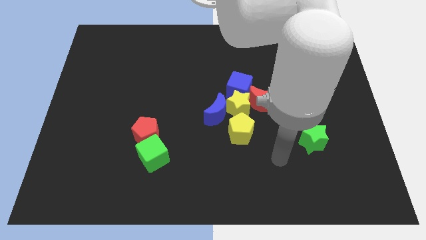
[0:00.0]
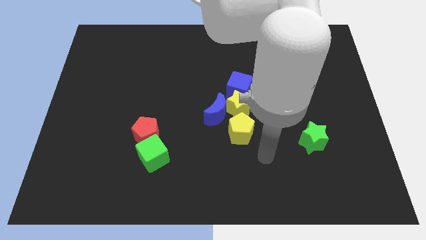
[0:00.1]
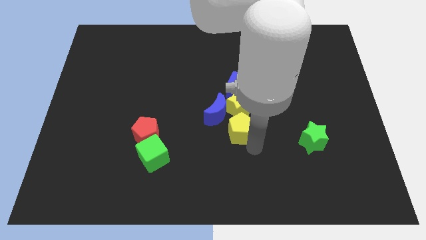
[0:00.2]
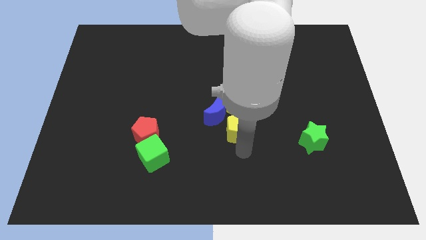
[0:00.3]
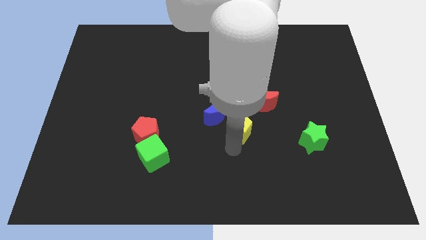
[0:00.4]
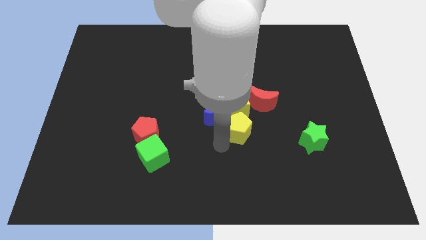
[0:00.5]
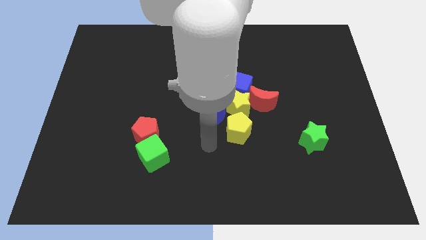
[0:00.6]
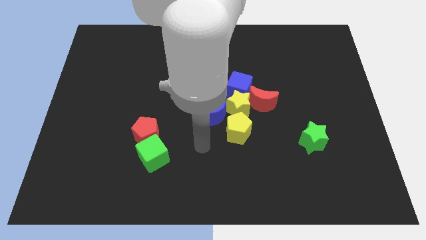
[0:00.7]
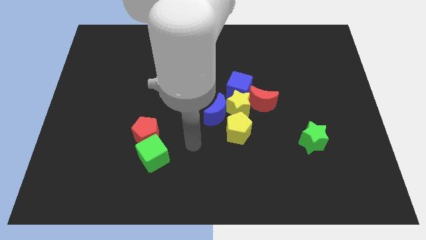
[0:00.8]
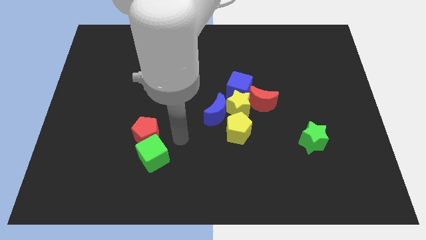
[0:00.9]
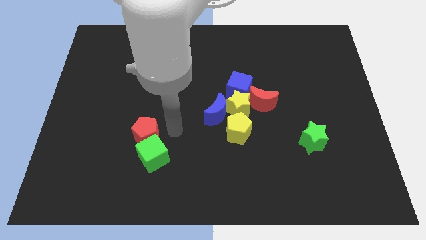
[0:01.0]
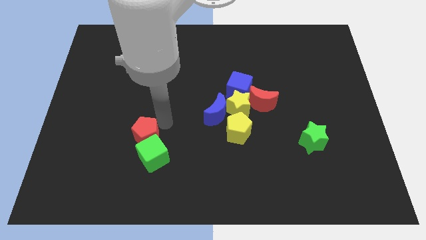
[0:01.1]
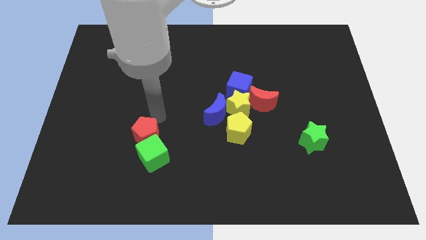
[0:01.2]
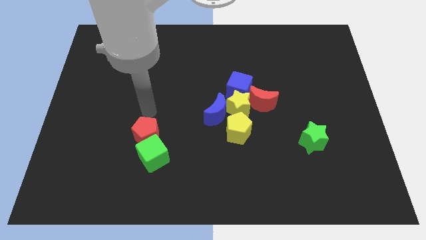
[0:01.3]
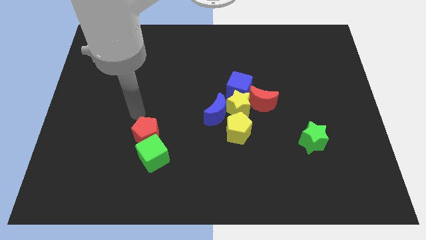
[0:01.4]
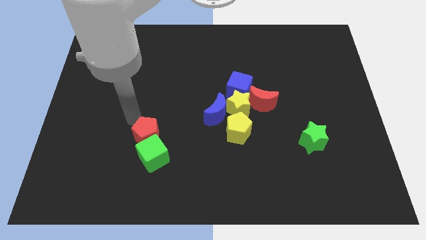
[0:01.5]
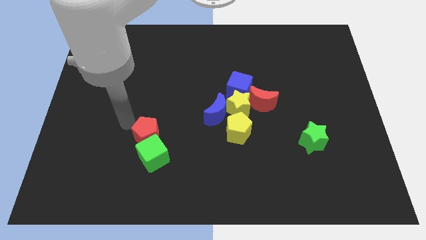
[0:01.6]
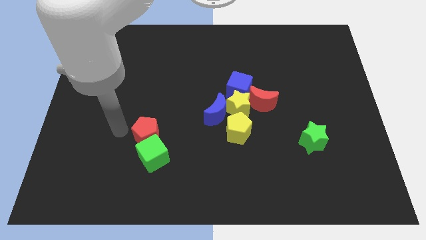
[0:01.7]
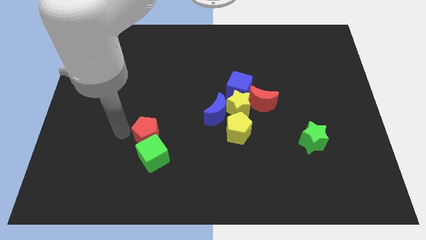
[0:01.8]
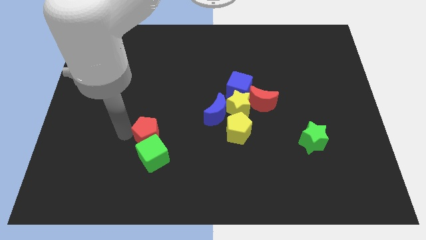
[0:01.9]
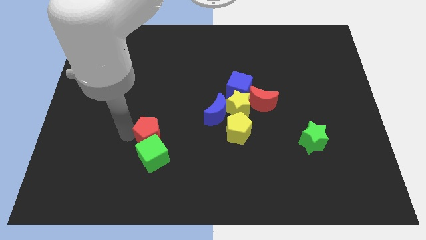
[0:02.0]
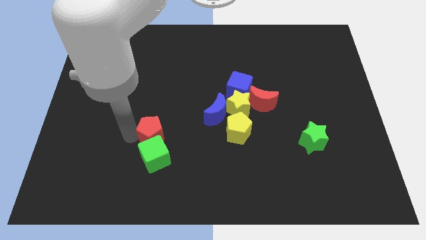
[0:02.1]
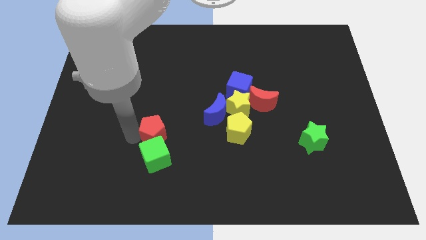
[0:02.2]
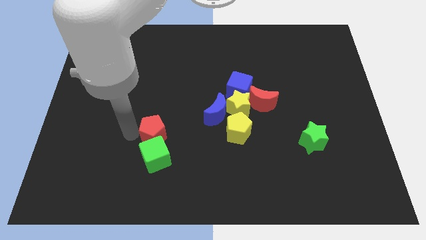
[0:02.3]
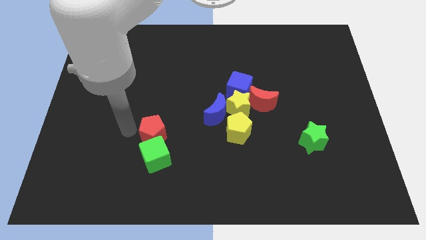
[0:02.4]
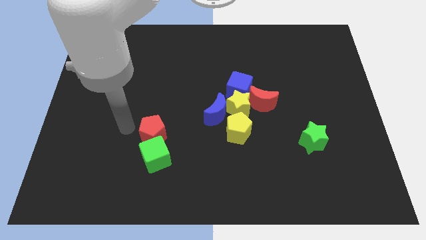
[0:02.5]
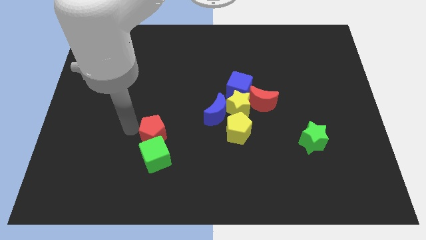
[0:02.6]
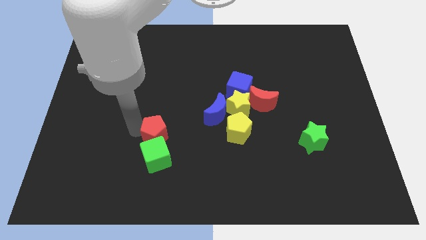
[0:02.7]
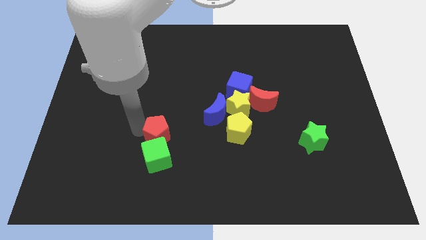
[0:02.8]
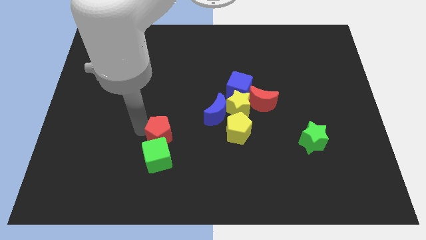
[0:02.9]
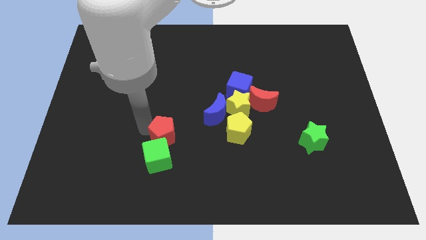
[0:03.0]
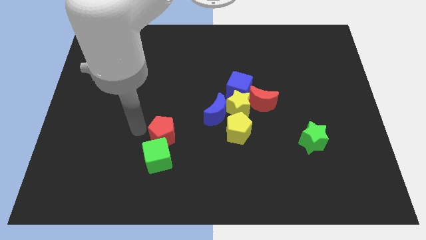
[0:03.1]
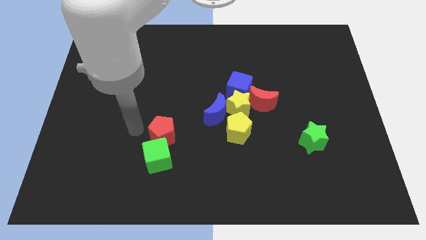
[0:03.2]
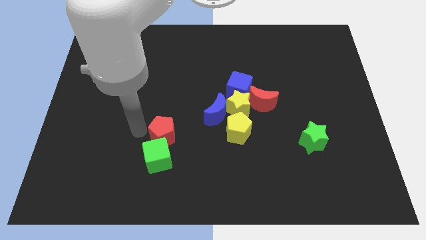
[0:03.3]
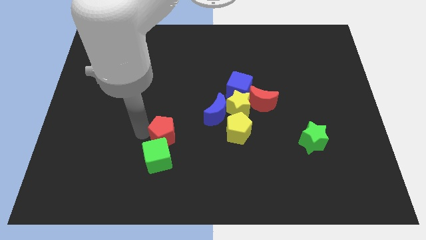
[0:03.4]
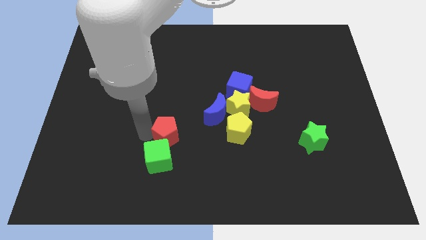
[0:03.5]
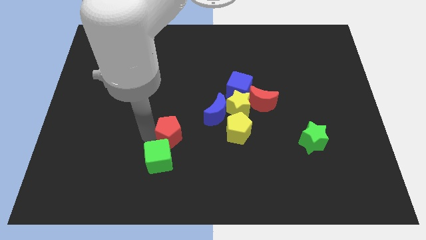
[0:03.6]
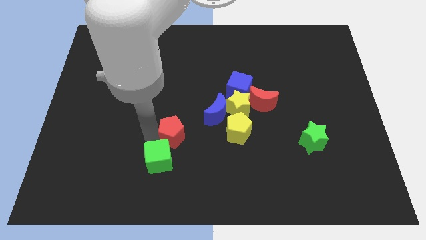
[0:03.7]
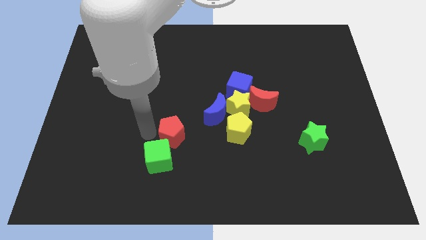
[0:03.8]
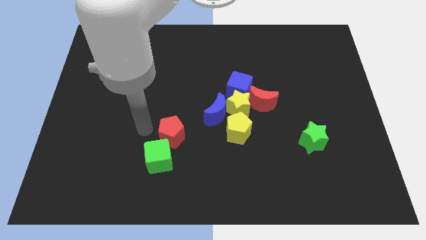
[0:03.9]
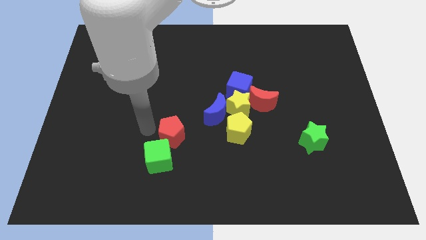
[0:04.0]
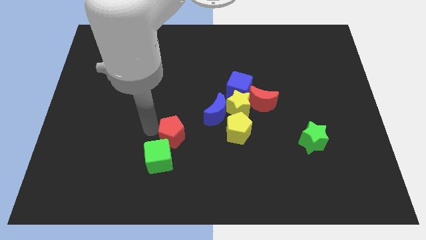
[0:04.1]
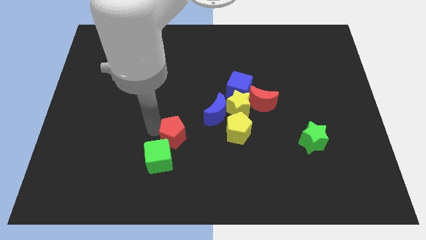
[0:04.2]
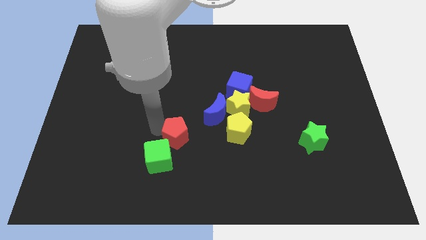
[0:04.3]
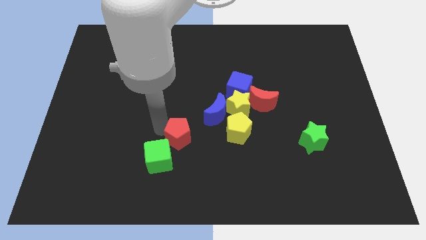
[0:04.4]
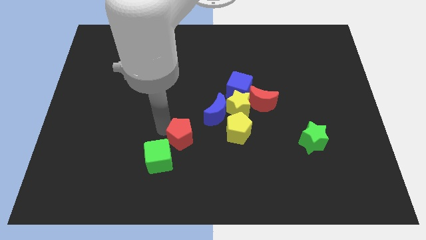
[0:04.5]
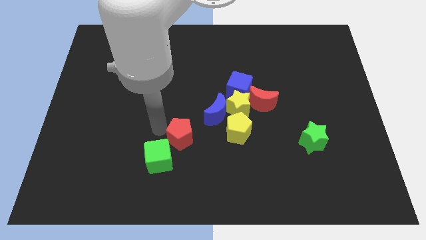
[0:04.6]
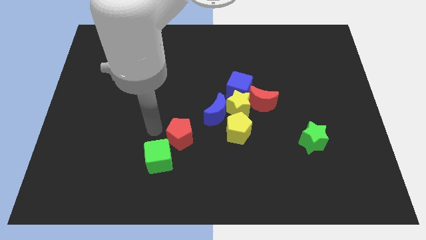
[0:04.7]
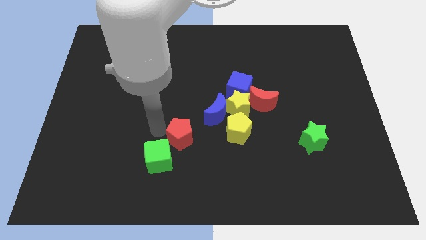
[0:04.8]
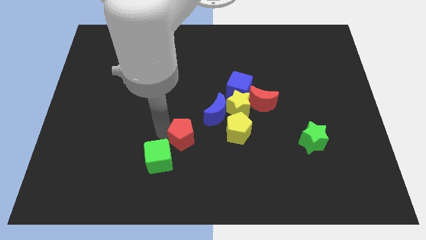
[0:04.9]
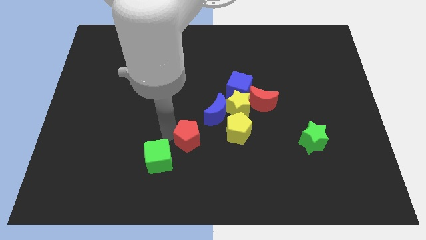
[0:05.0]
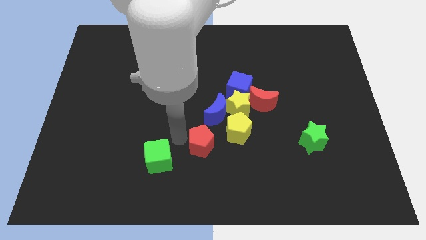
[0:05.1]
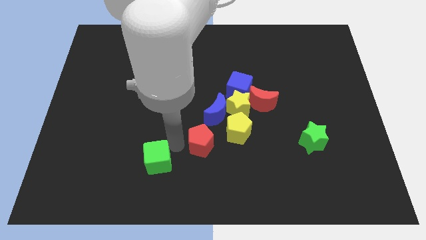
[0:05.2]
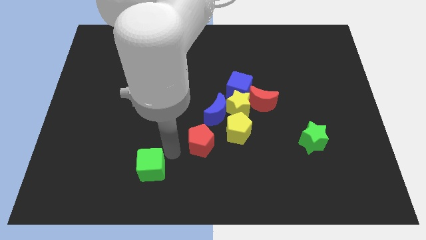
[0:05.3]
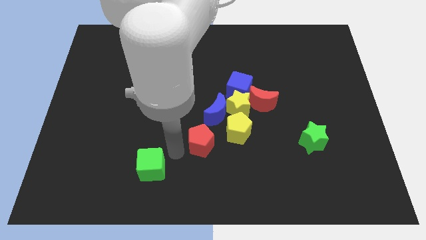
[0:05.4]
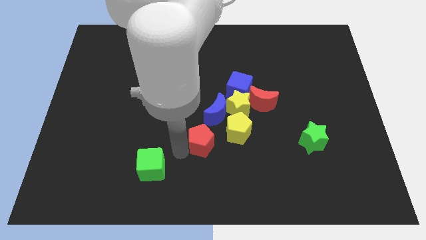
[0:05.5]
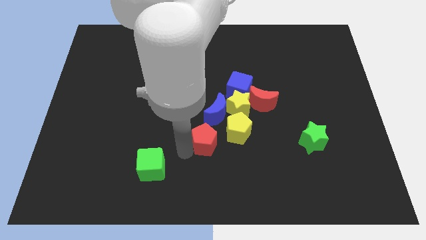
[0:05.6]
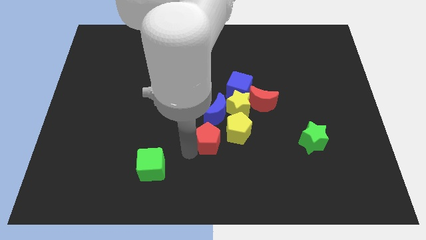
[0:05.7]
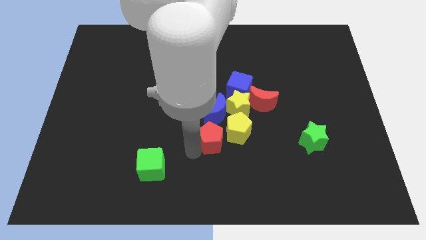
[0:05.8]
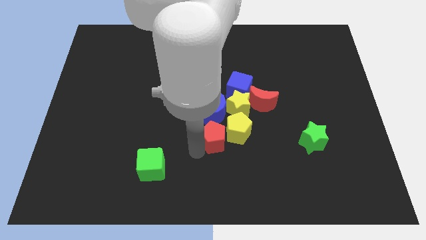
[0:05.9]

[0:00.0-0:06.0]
slide the red pentagon next to the yellow pentagon

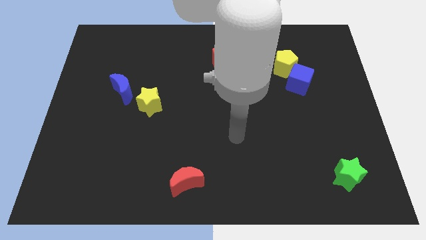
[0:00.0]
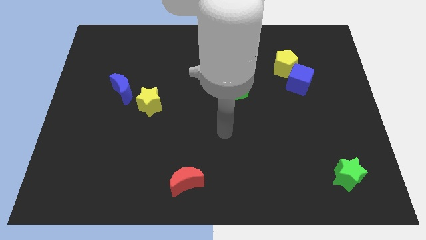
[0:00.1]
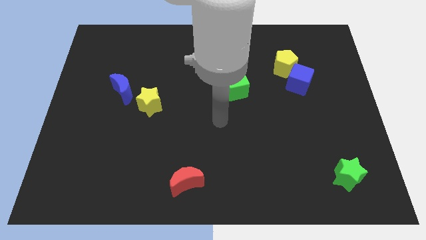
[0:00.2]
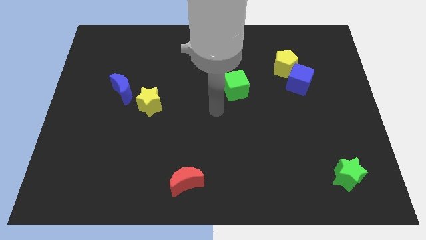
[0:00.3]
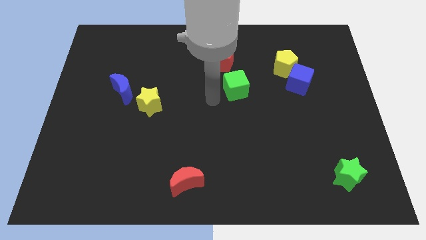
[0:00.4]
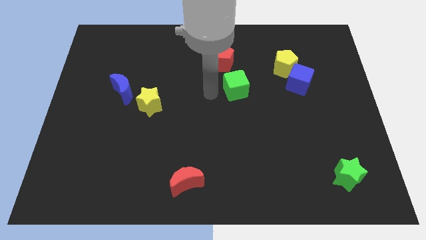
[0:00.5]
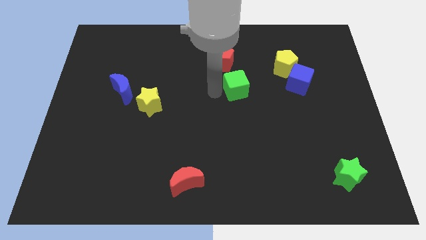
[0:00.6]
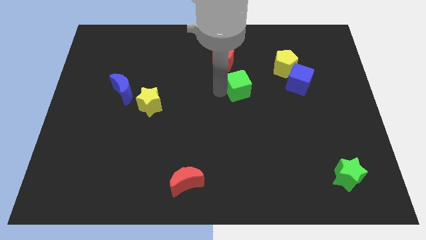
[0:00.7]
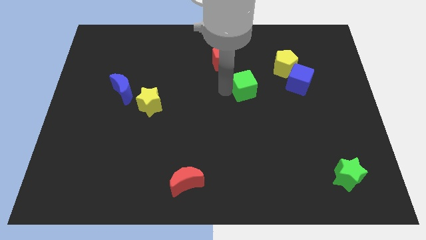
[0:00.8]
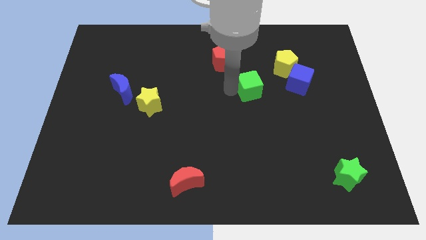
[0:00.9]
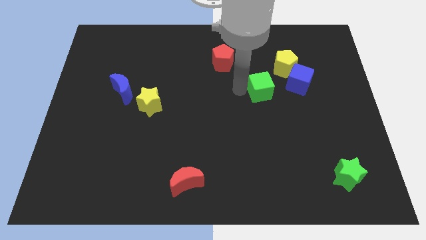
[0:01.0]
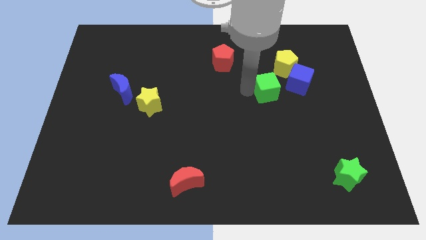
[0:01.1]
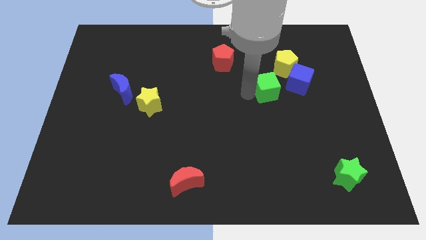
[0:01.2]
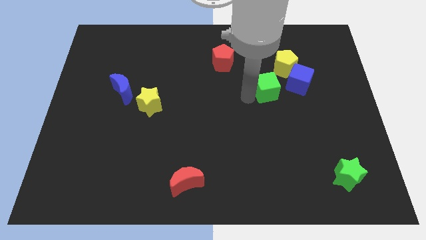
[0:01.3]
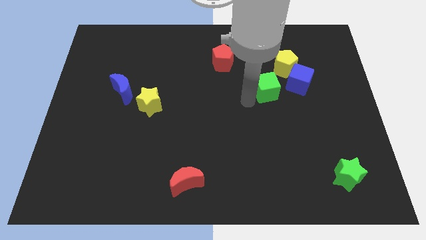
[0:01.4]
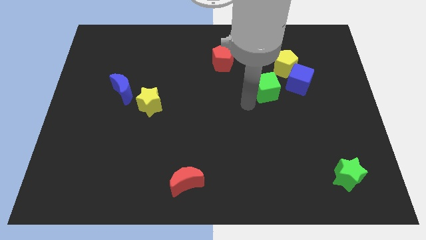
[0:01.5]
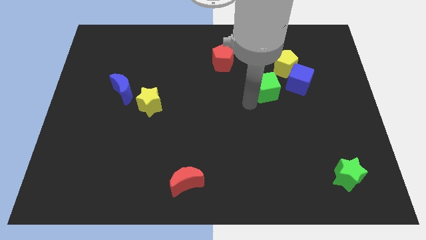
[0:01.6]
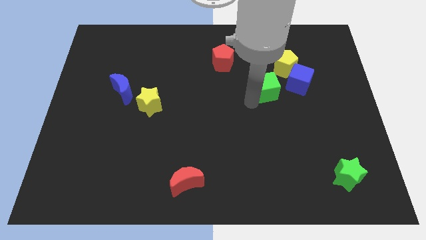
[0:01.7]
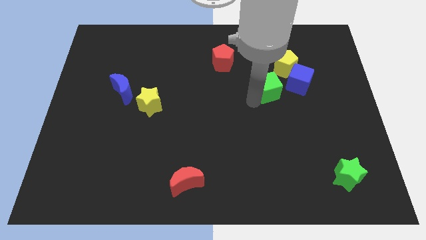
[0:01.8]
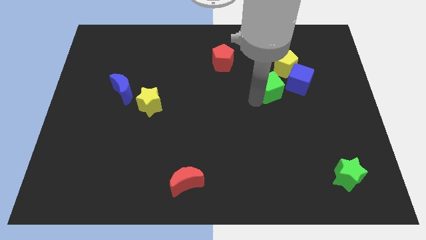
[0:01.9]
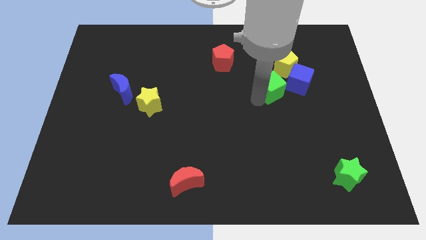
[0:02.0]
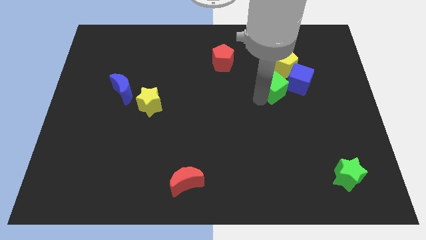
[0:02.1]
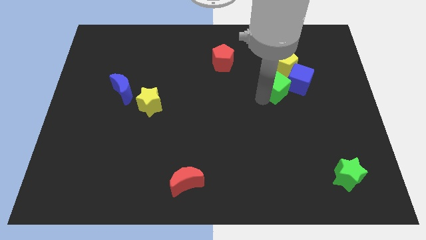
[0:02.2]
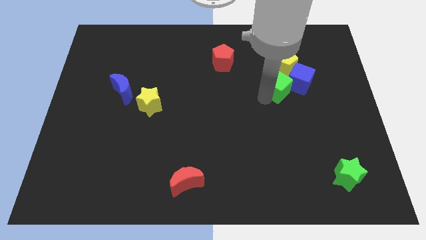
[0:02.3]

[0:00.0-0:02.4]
put the green cube close to the blue cube
